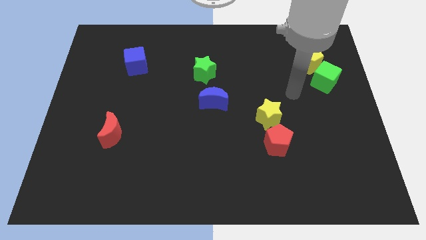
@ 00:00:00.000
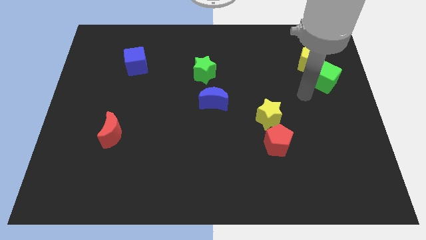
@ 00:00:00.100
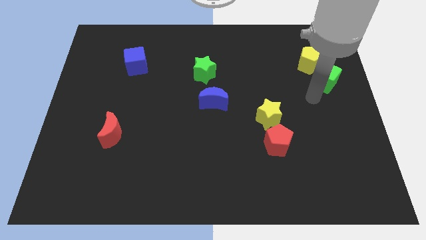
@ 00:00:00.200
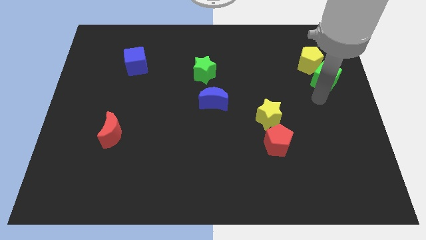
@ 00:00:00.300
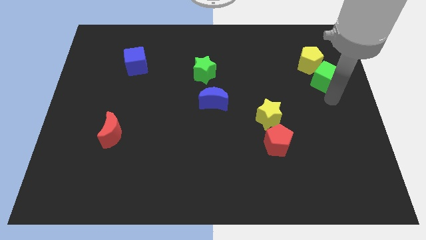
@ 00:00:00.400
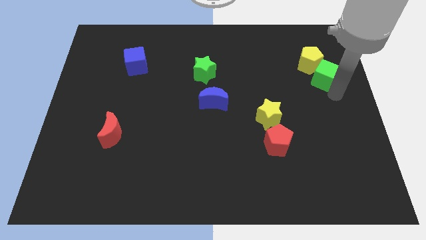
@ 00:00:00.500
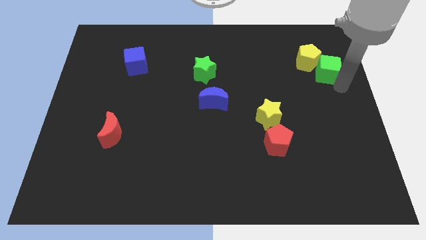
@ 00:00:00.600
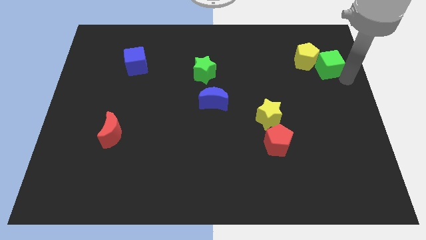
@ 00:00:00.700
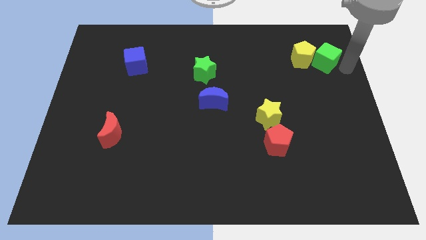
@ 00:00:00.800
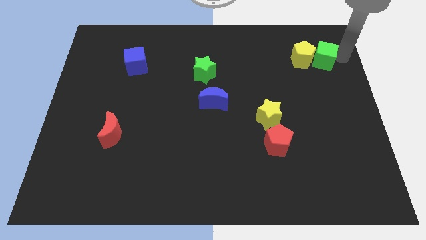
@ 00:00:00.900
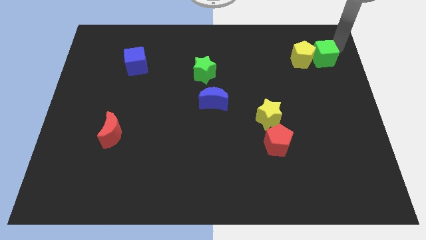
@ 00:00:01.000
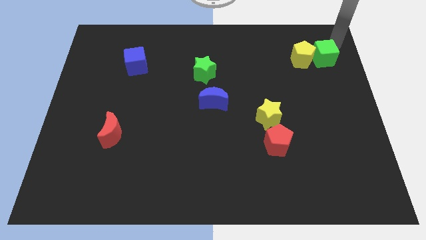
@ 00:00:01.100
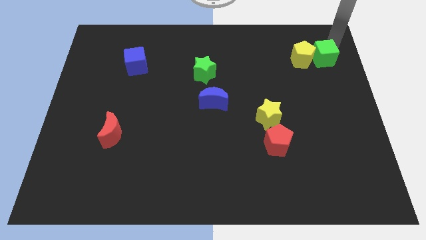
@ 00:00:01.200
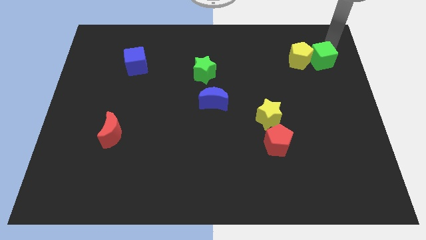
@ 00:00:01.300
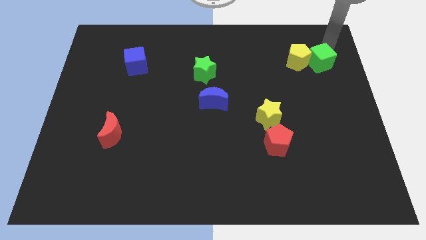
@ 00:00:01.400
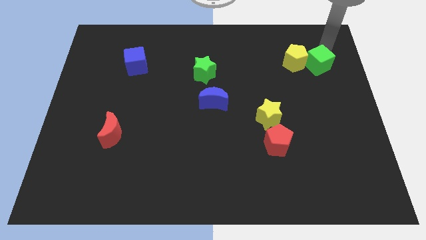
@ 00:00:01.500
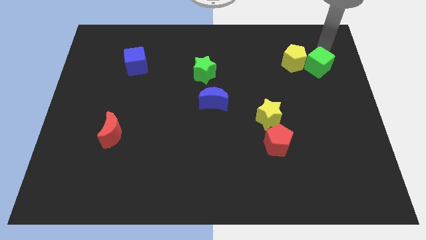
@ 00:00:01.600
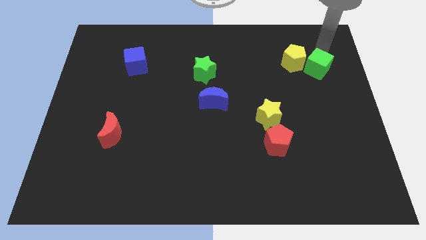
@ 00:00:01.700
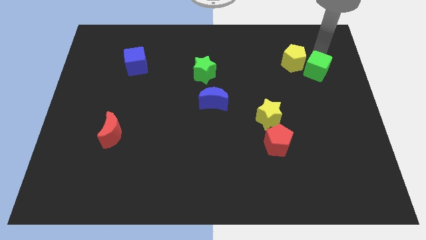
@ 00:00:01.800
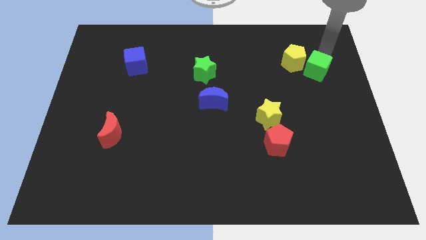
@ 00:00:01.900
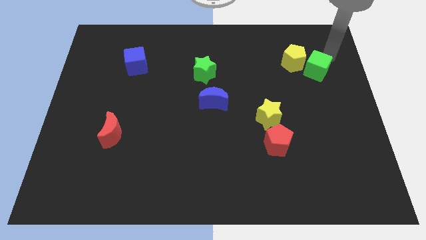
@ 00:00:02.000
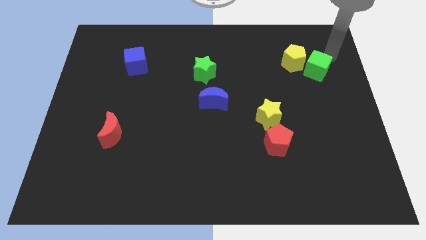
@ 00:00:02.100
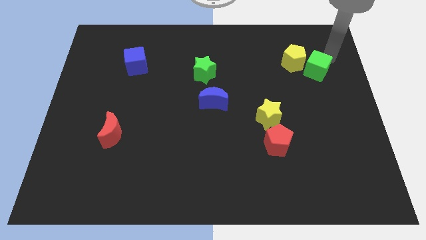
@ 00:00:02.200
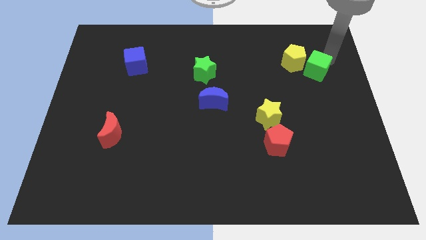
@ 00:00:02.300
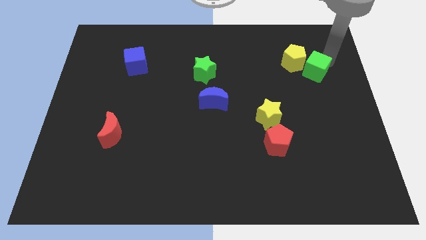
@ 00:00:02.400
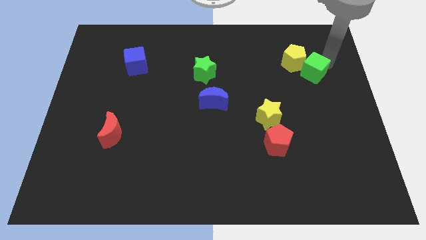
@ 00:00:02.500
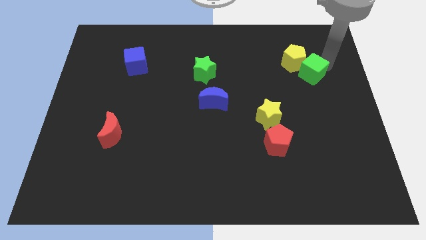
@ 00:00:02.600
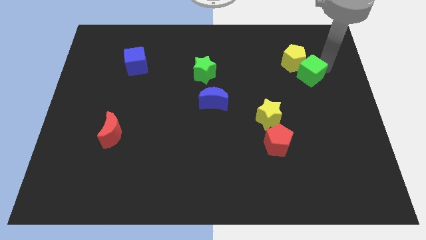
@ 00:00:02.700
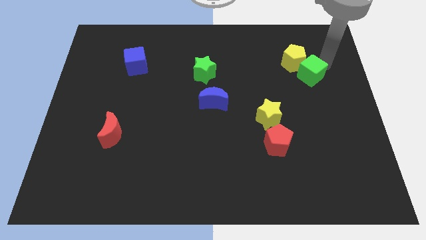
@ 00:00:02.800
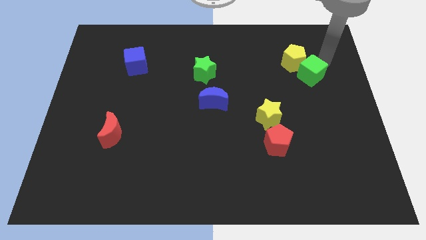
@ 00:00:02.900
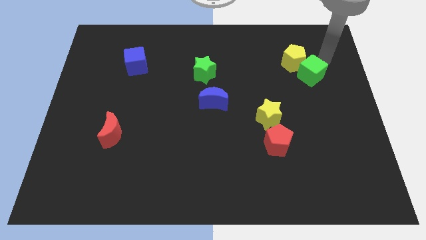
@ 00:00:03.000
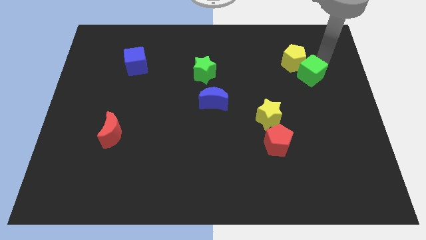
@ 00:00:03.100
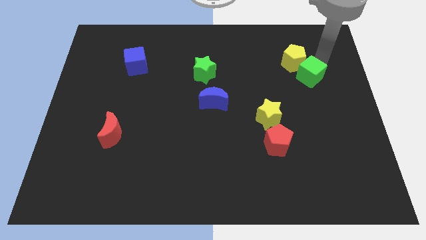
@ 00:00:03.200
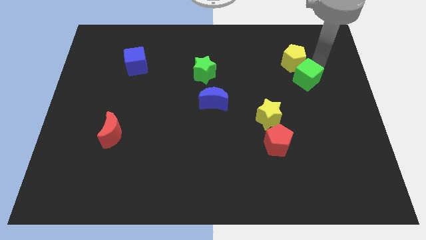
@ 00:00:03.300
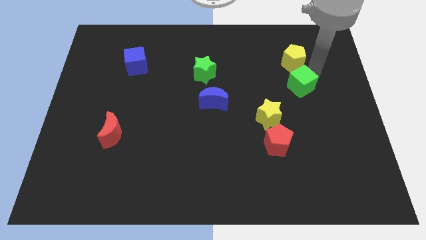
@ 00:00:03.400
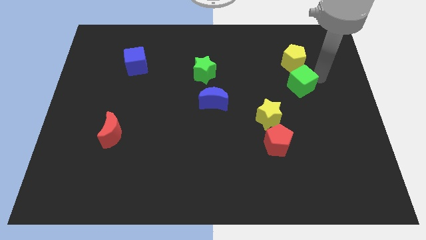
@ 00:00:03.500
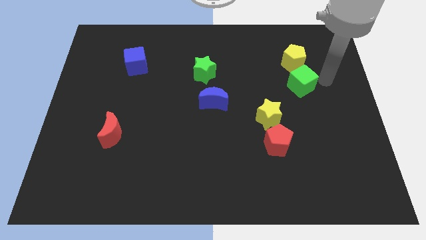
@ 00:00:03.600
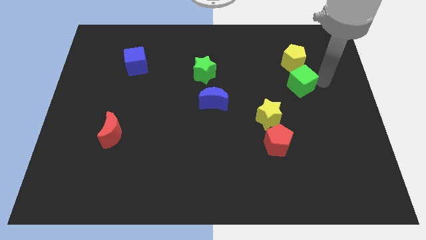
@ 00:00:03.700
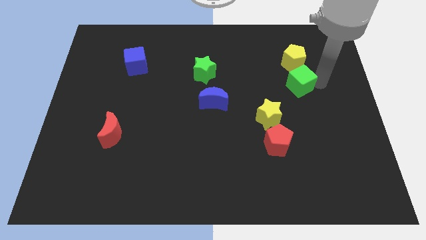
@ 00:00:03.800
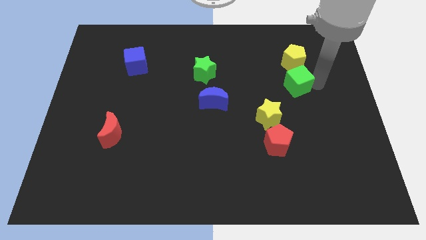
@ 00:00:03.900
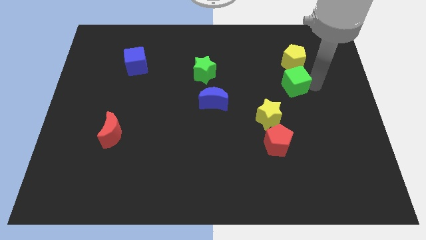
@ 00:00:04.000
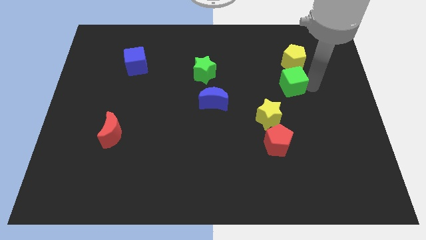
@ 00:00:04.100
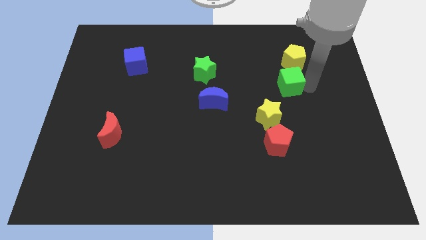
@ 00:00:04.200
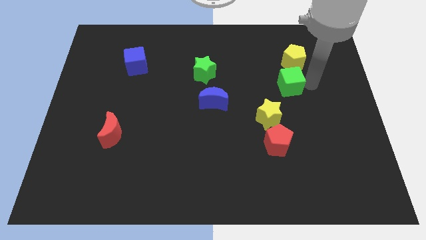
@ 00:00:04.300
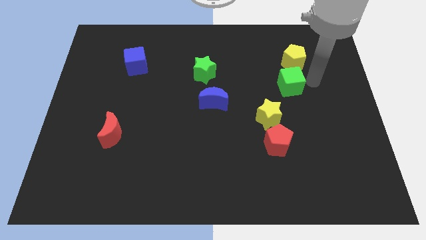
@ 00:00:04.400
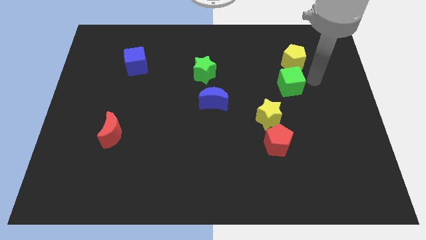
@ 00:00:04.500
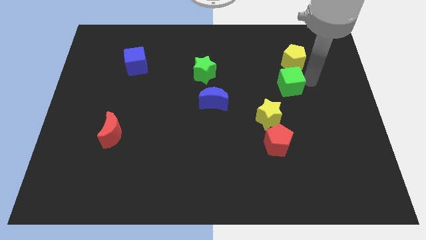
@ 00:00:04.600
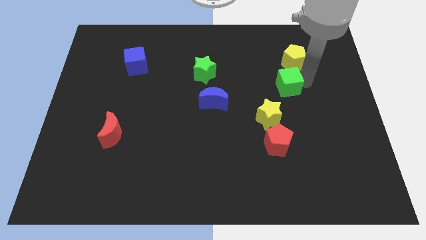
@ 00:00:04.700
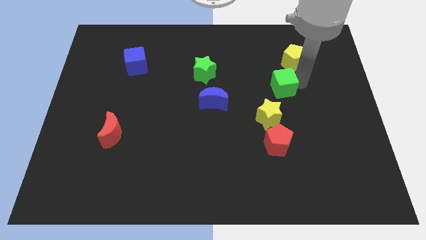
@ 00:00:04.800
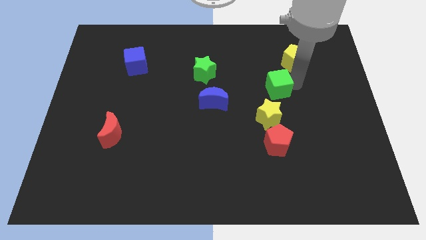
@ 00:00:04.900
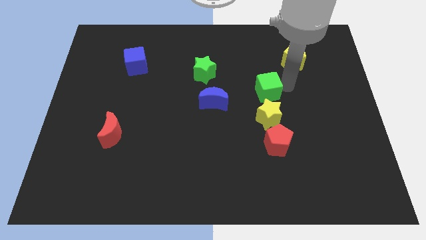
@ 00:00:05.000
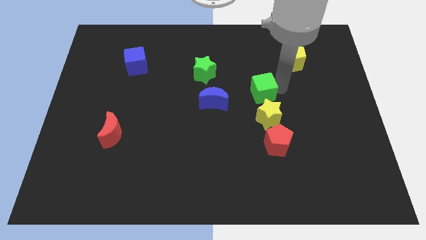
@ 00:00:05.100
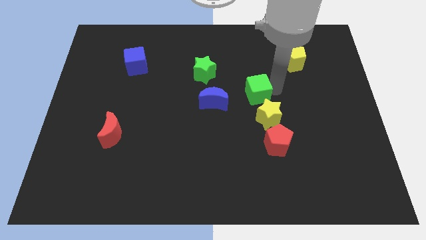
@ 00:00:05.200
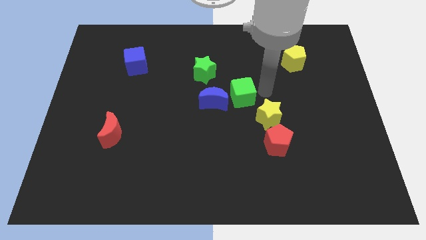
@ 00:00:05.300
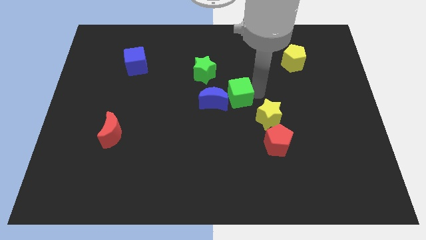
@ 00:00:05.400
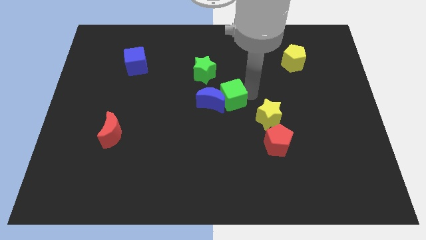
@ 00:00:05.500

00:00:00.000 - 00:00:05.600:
put the green cube close to the blue moon
